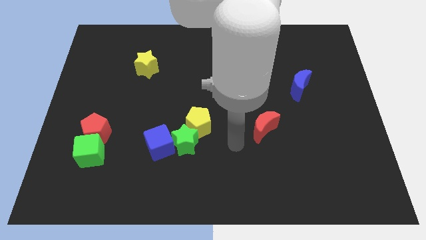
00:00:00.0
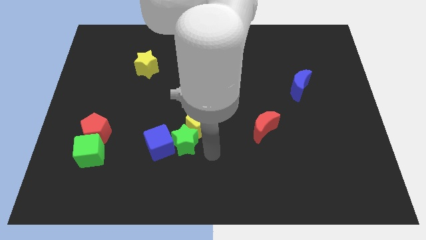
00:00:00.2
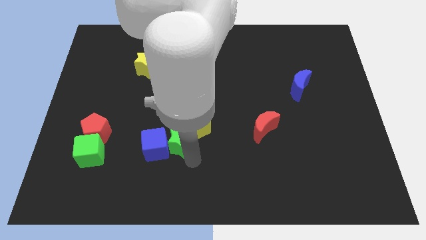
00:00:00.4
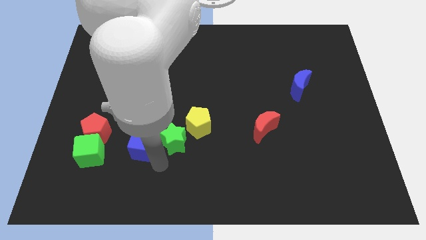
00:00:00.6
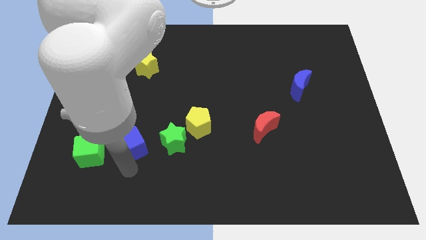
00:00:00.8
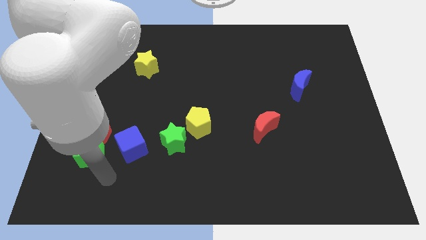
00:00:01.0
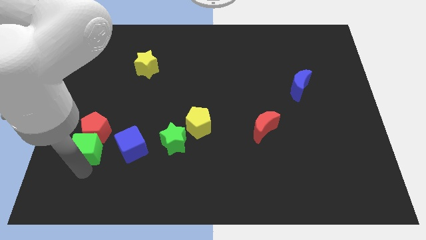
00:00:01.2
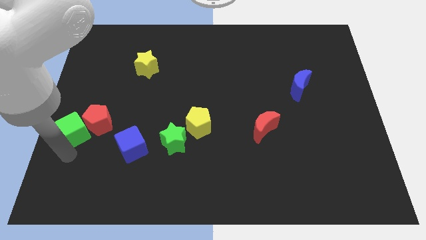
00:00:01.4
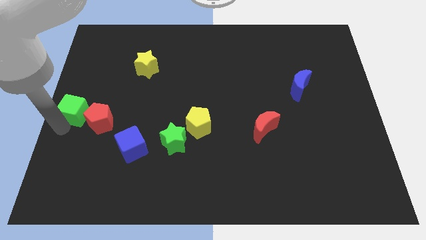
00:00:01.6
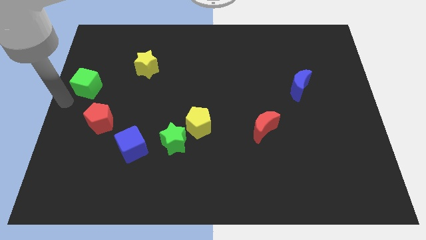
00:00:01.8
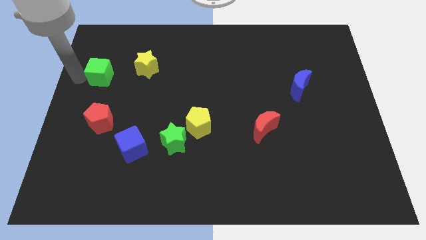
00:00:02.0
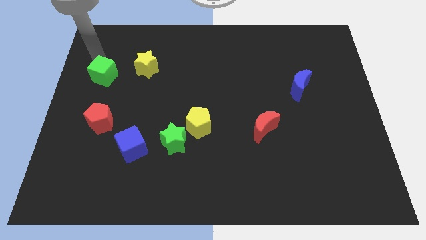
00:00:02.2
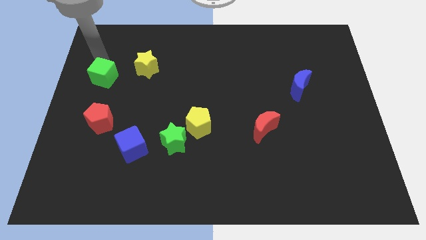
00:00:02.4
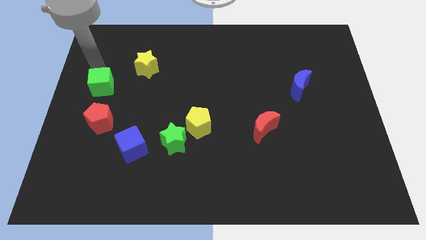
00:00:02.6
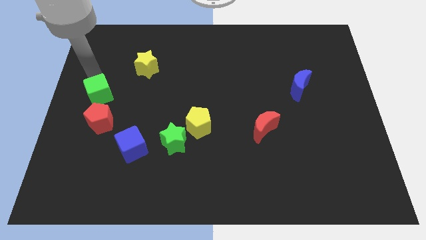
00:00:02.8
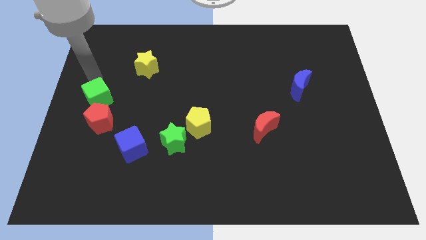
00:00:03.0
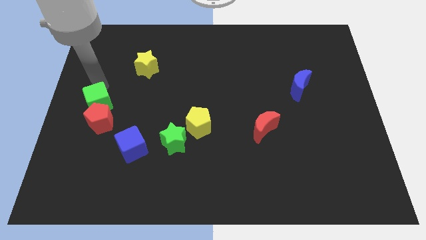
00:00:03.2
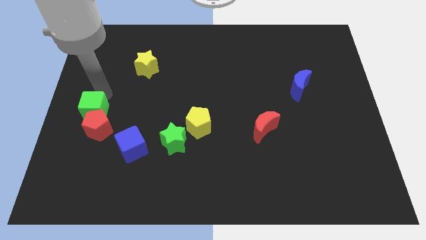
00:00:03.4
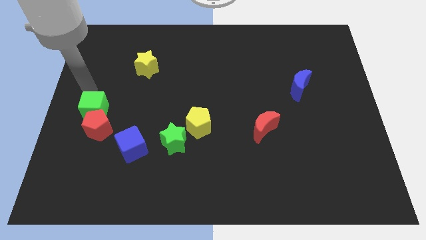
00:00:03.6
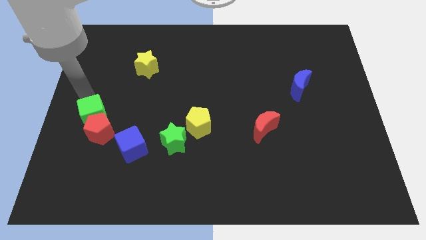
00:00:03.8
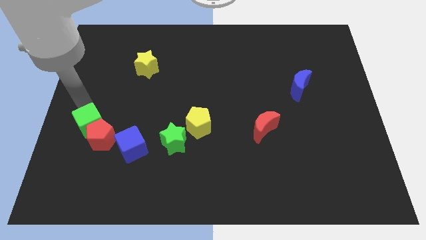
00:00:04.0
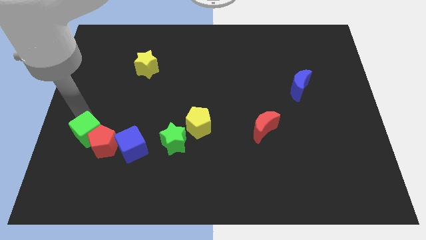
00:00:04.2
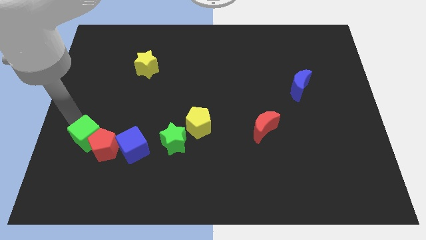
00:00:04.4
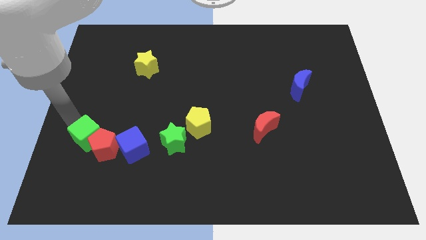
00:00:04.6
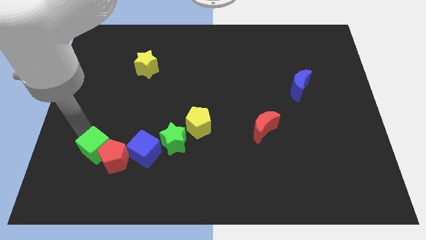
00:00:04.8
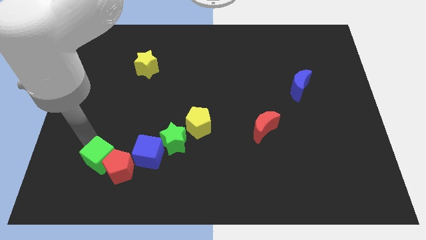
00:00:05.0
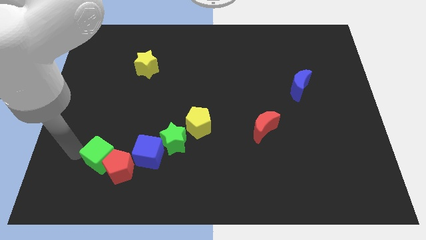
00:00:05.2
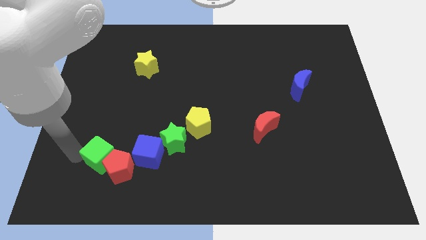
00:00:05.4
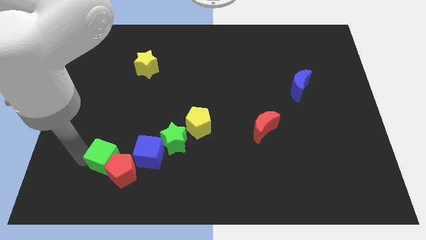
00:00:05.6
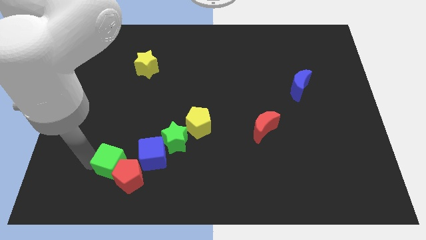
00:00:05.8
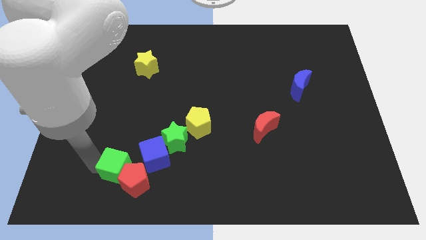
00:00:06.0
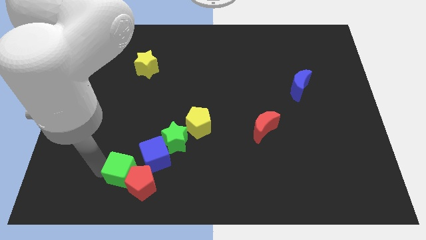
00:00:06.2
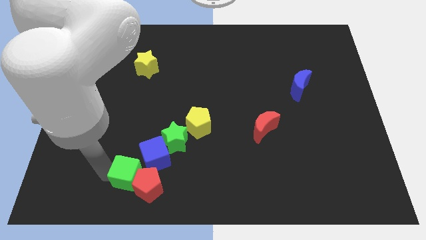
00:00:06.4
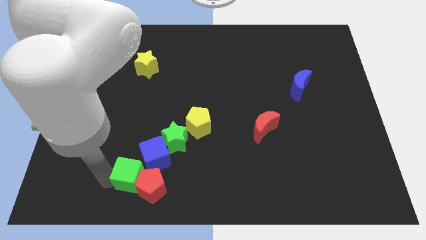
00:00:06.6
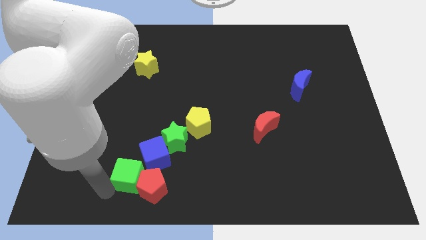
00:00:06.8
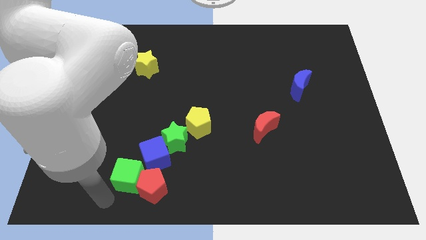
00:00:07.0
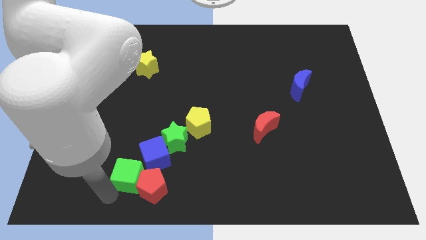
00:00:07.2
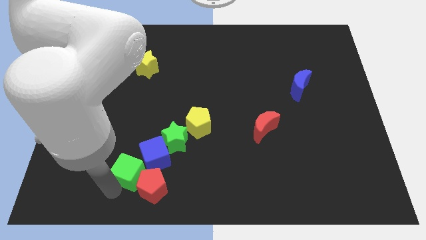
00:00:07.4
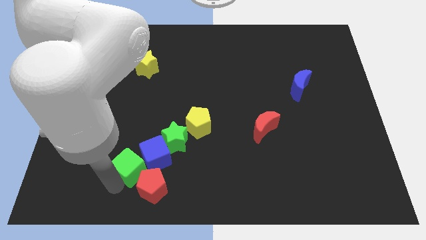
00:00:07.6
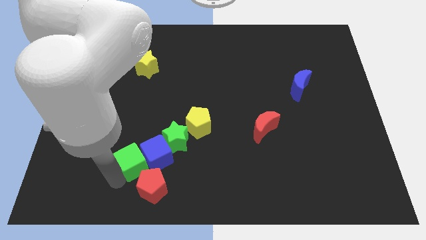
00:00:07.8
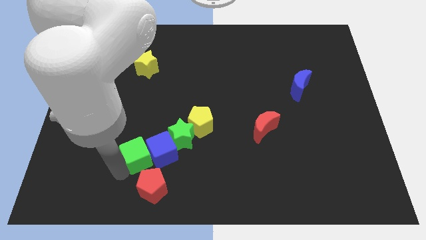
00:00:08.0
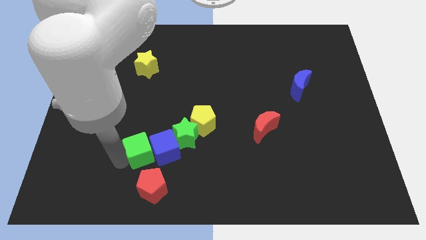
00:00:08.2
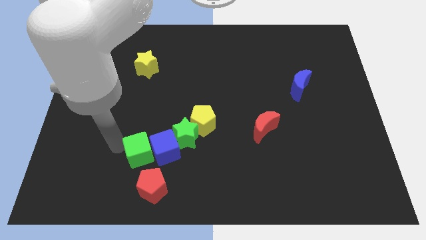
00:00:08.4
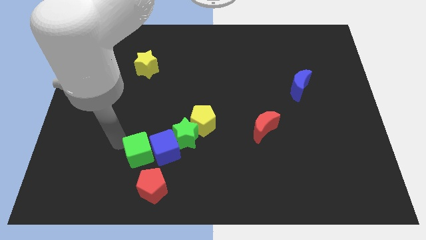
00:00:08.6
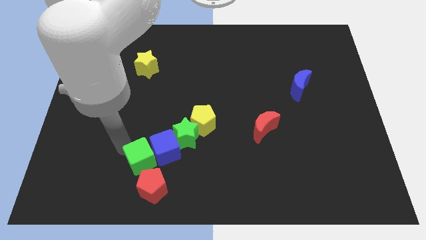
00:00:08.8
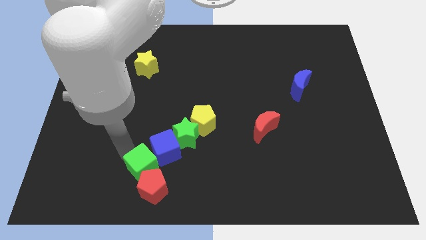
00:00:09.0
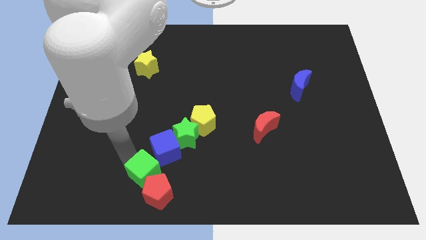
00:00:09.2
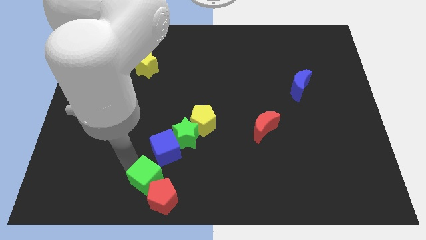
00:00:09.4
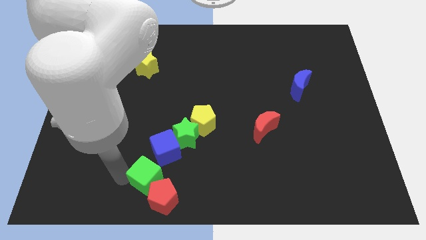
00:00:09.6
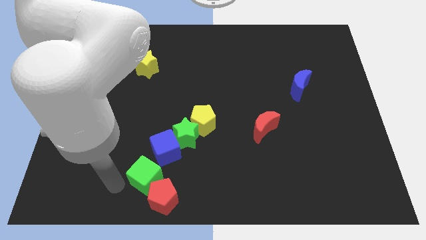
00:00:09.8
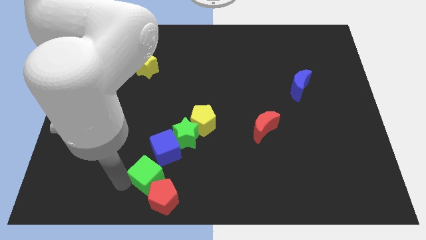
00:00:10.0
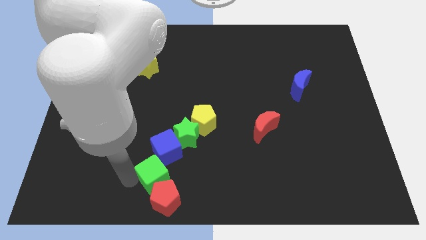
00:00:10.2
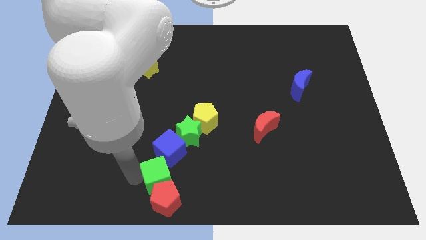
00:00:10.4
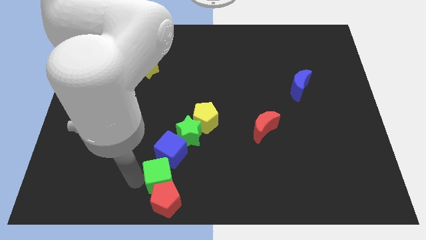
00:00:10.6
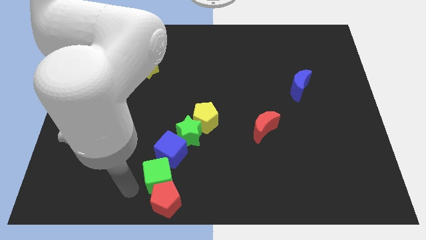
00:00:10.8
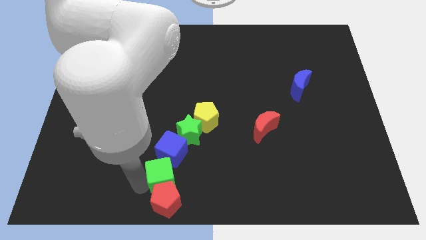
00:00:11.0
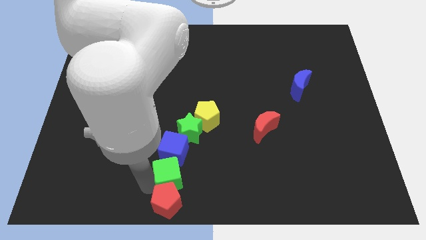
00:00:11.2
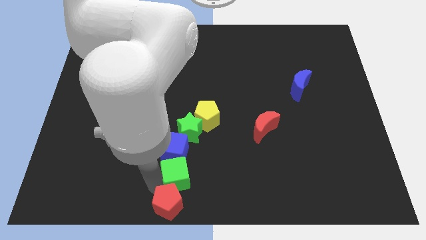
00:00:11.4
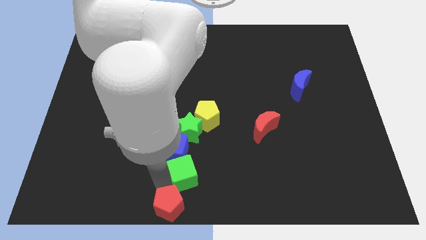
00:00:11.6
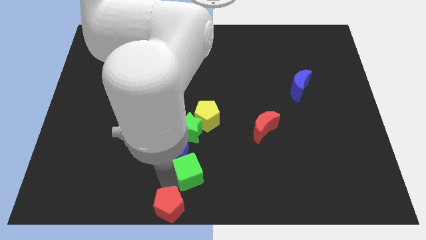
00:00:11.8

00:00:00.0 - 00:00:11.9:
push the green cube right

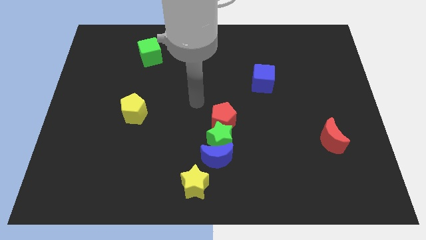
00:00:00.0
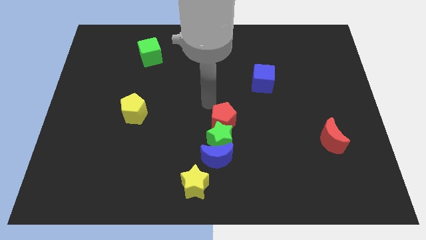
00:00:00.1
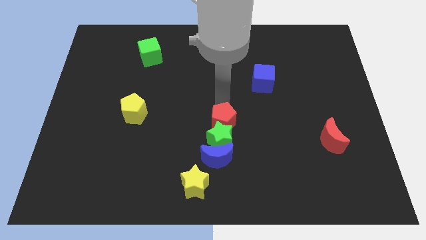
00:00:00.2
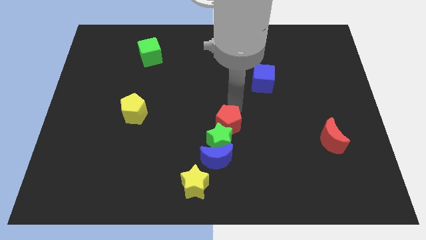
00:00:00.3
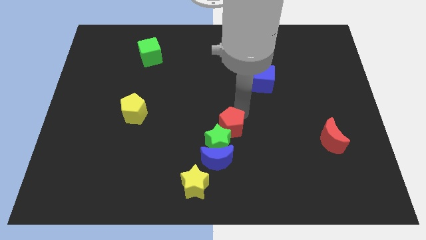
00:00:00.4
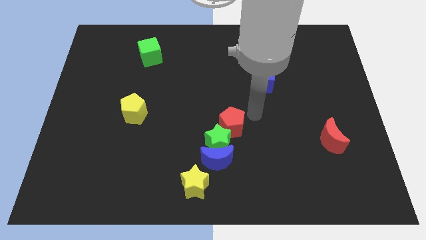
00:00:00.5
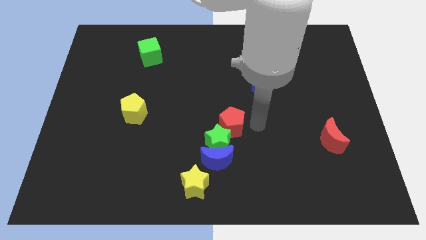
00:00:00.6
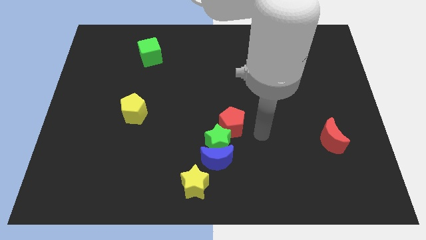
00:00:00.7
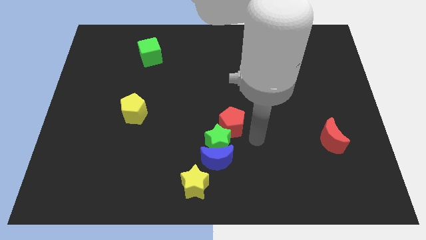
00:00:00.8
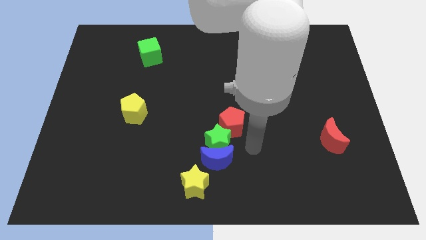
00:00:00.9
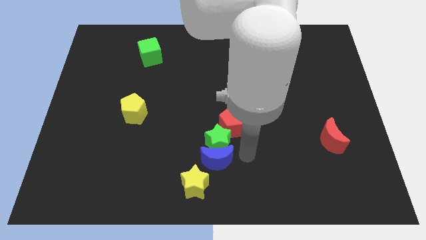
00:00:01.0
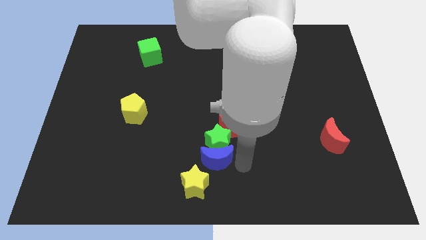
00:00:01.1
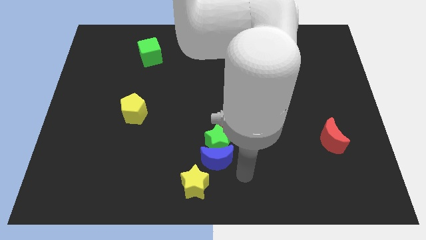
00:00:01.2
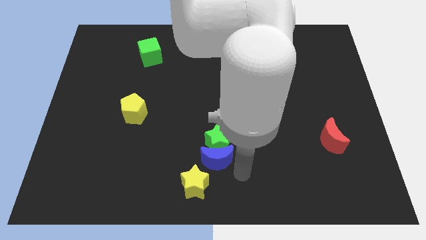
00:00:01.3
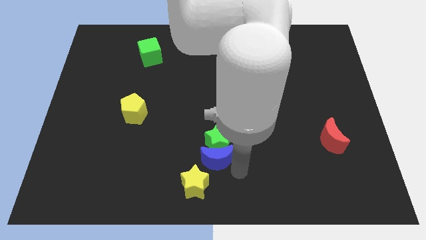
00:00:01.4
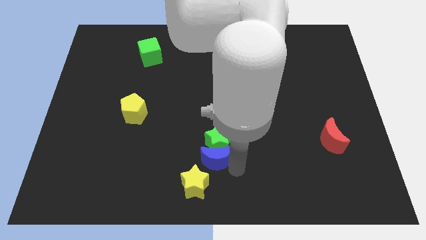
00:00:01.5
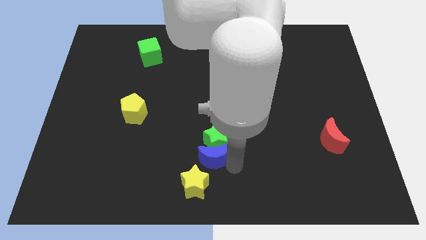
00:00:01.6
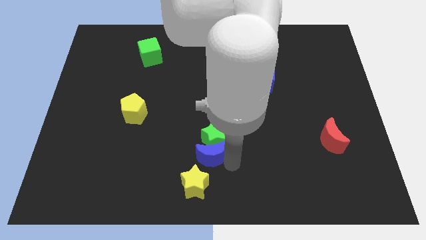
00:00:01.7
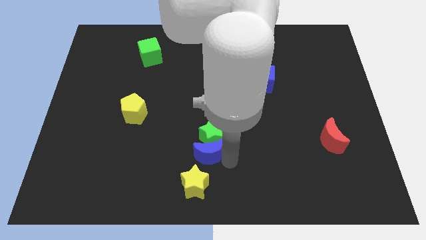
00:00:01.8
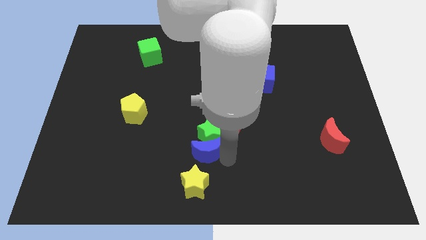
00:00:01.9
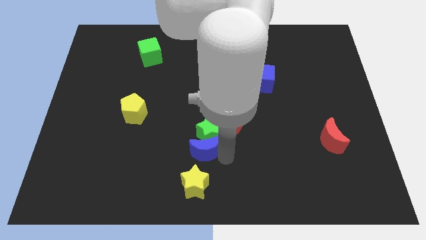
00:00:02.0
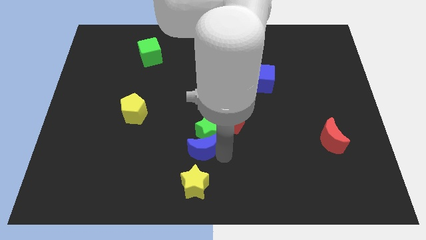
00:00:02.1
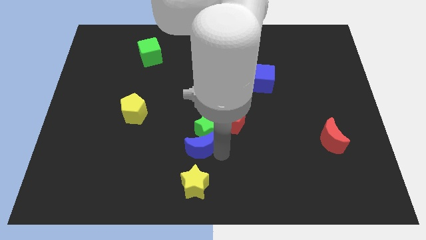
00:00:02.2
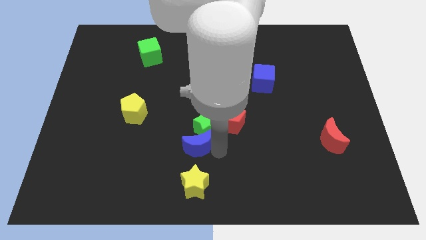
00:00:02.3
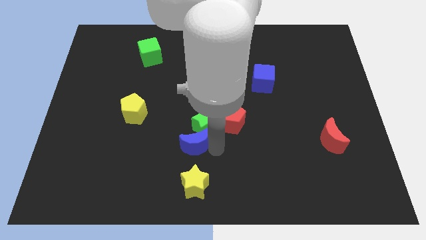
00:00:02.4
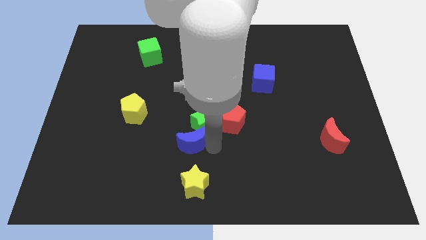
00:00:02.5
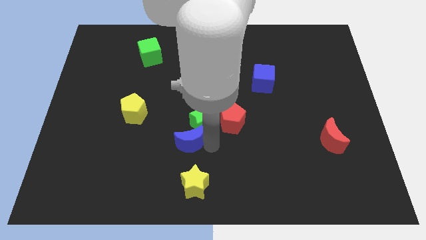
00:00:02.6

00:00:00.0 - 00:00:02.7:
slightly push the blue moon upwards and to the left
